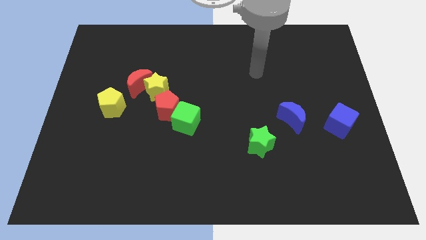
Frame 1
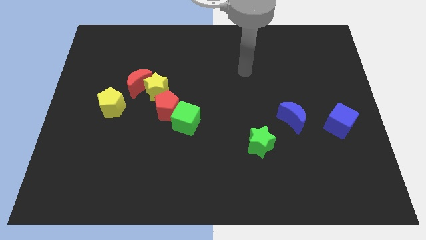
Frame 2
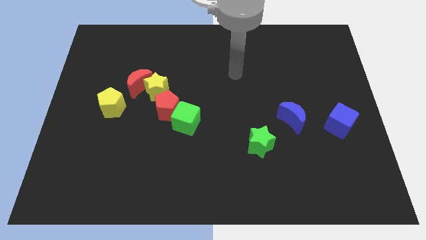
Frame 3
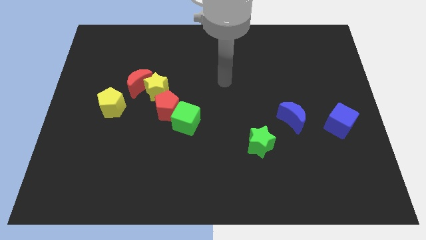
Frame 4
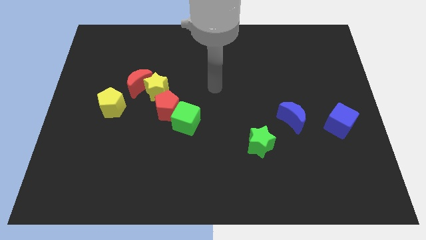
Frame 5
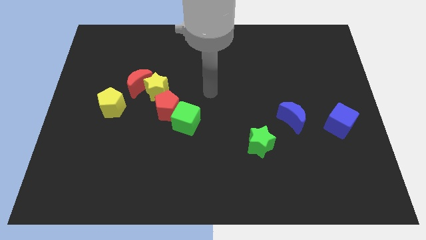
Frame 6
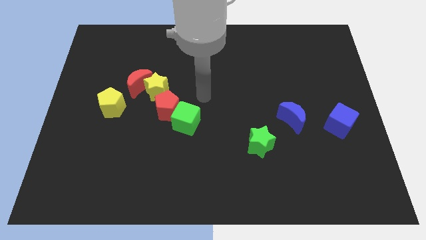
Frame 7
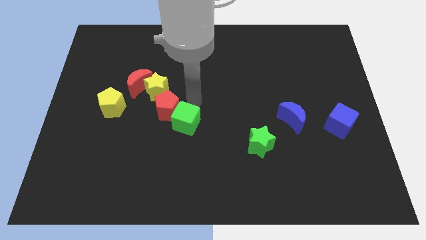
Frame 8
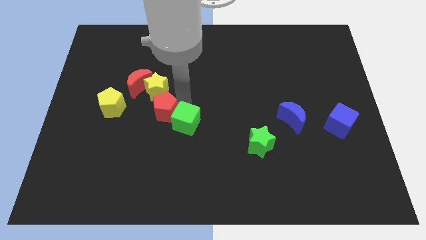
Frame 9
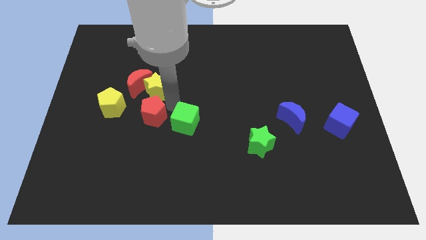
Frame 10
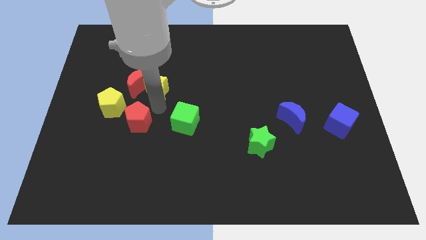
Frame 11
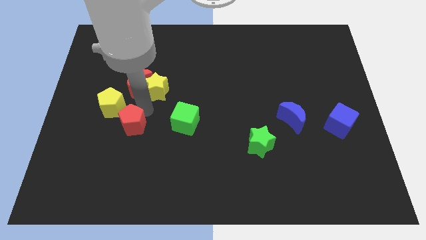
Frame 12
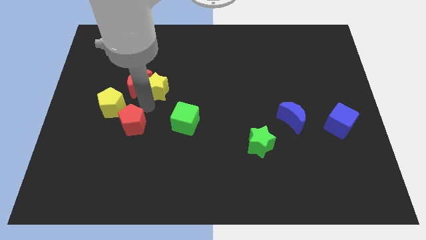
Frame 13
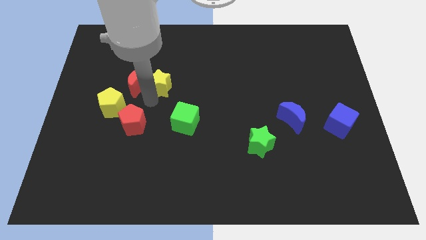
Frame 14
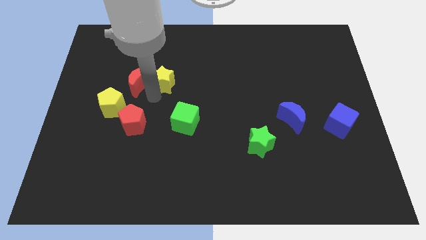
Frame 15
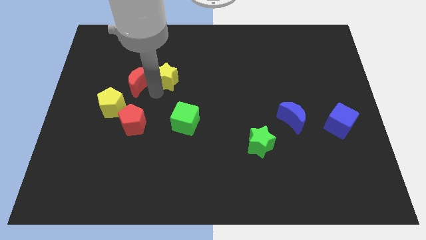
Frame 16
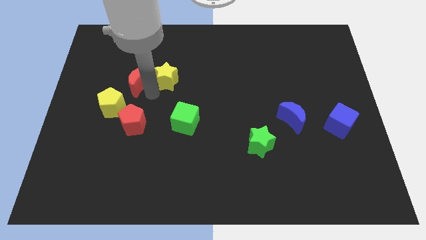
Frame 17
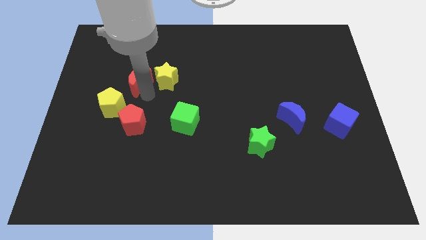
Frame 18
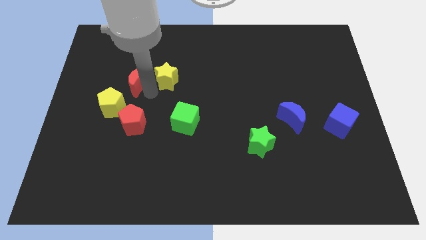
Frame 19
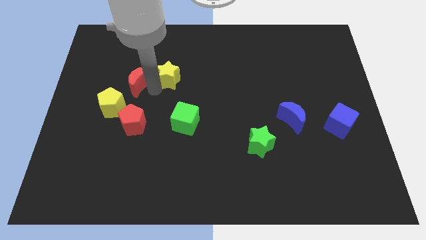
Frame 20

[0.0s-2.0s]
separate the yellow star from the red moon and red pentagon

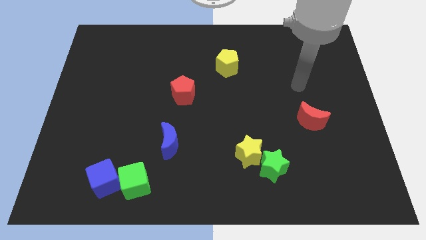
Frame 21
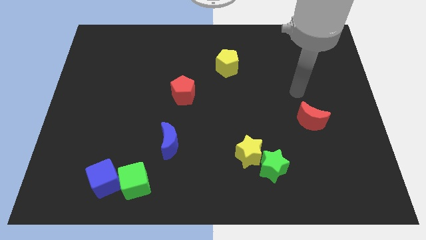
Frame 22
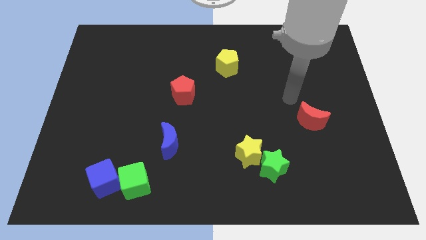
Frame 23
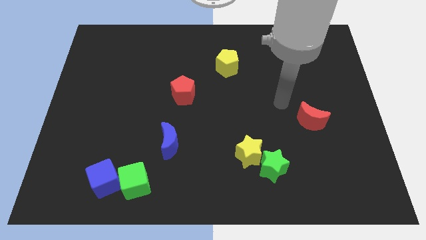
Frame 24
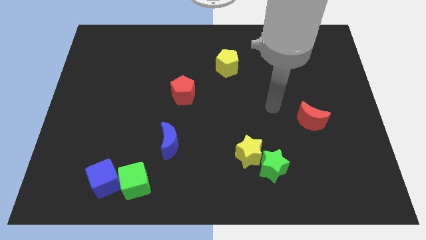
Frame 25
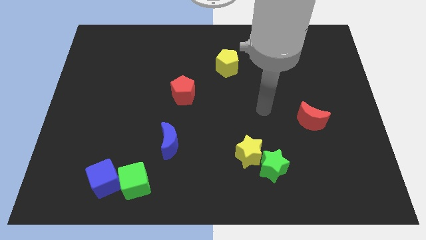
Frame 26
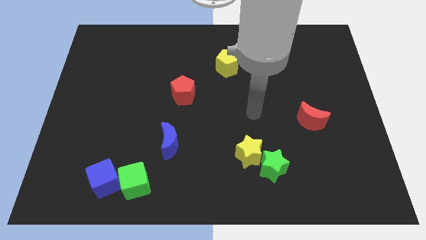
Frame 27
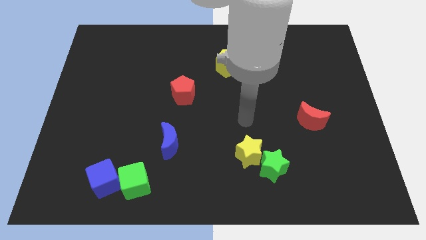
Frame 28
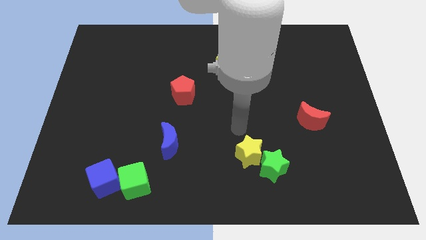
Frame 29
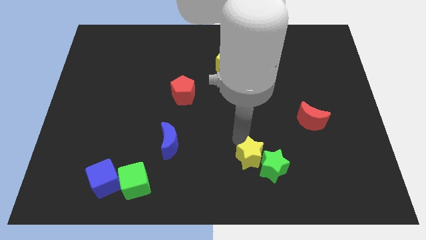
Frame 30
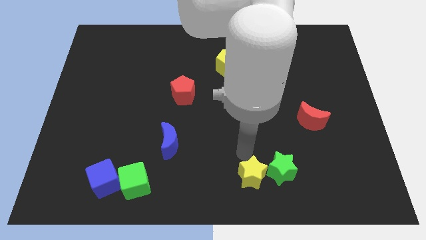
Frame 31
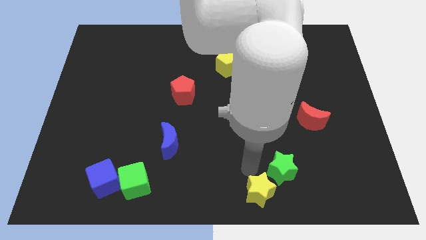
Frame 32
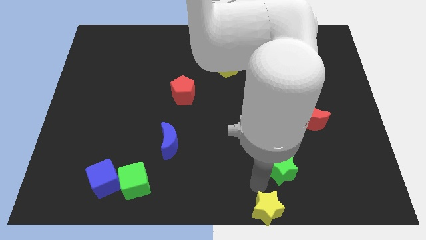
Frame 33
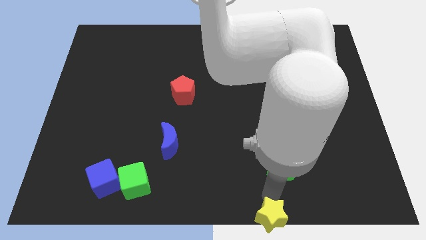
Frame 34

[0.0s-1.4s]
move the green star away from the yellow star

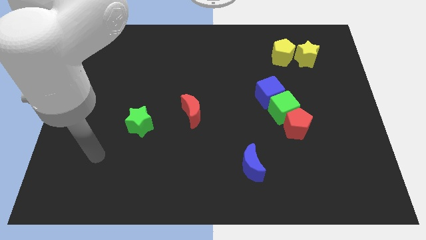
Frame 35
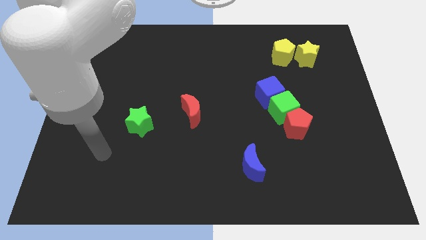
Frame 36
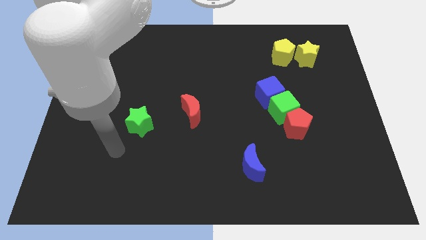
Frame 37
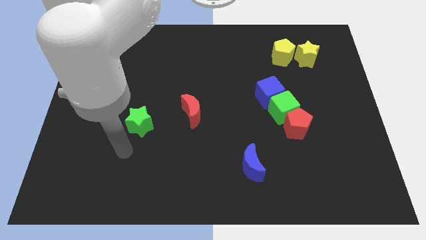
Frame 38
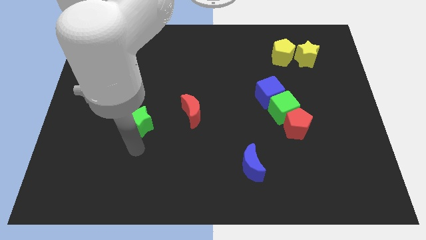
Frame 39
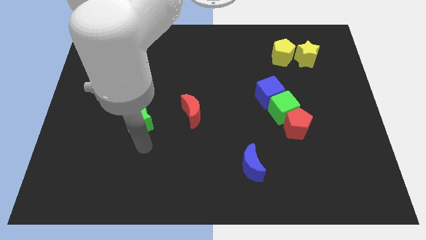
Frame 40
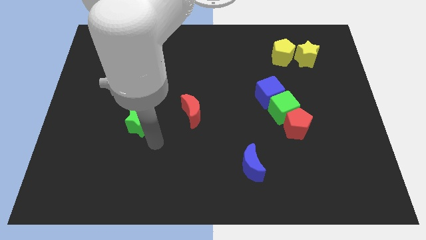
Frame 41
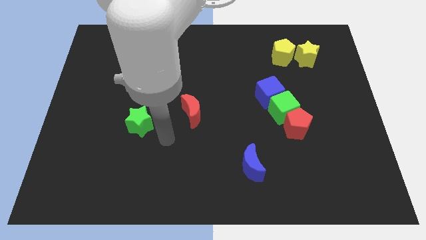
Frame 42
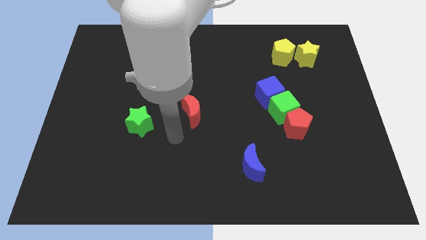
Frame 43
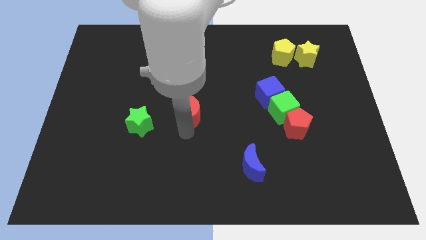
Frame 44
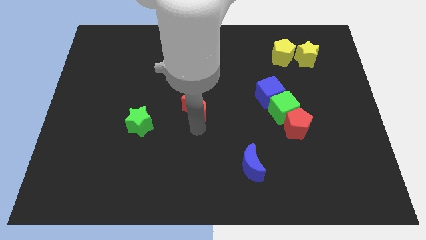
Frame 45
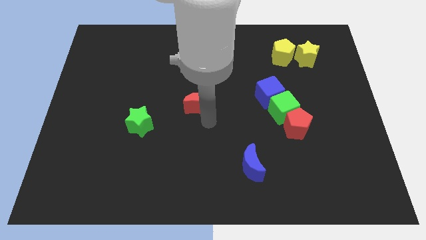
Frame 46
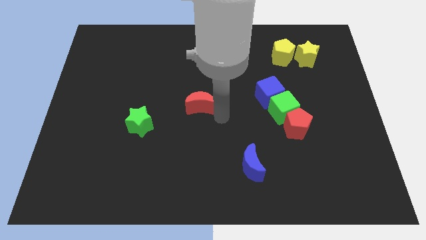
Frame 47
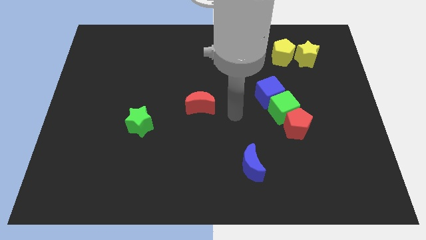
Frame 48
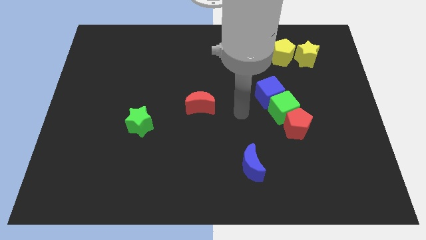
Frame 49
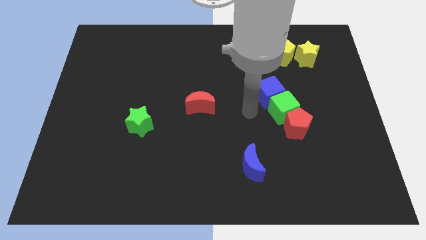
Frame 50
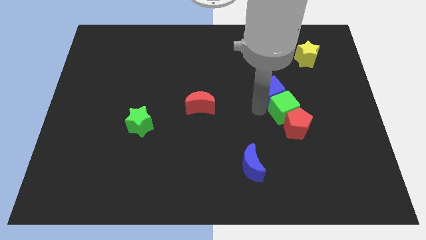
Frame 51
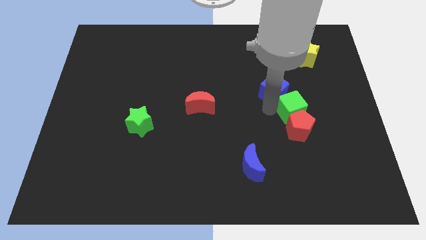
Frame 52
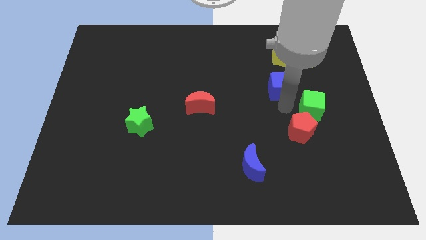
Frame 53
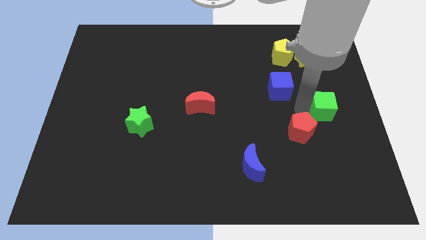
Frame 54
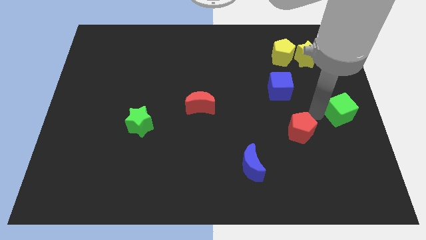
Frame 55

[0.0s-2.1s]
separate the red pentagon from the green cube

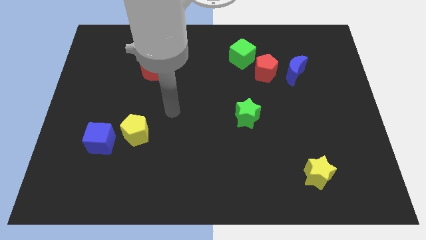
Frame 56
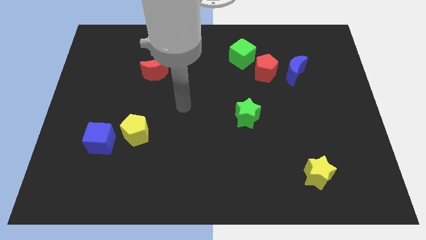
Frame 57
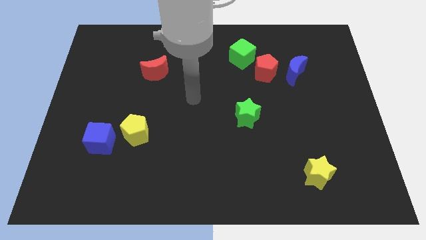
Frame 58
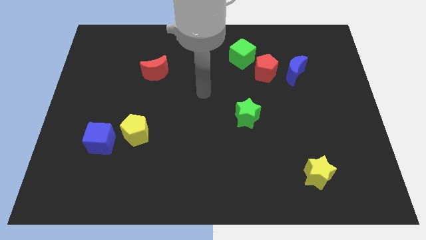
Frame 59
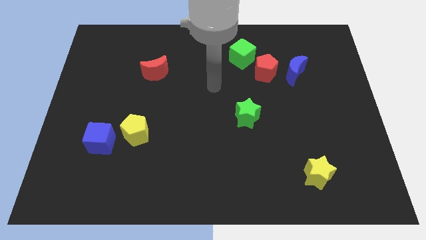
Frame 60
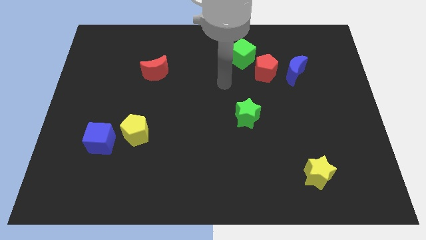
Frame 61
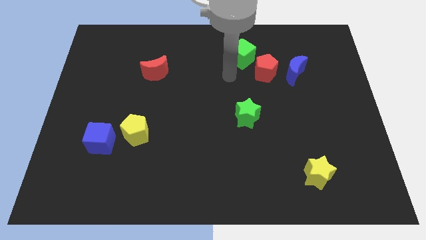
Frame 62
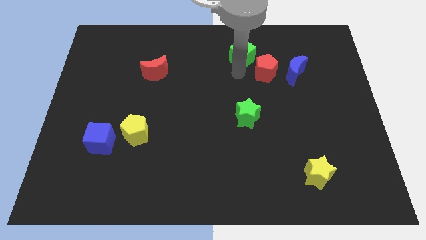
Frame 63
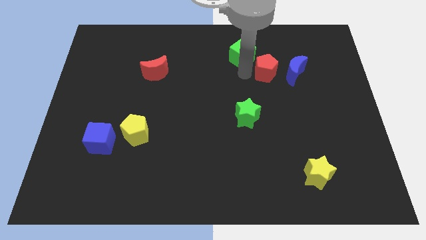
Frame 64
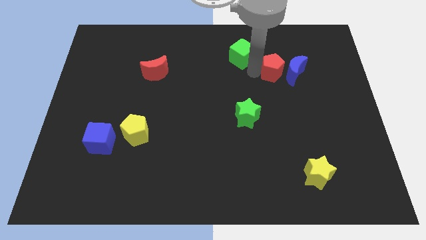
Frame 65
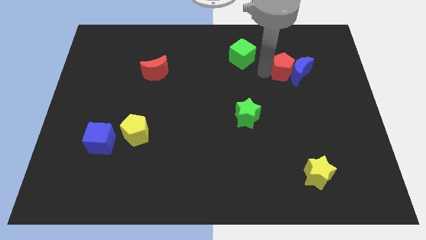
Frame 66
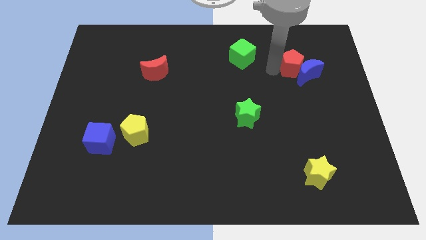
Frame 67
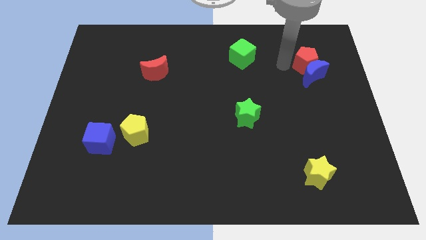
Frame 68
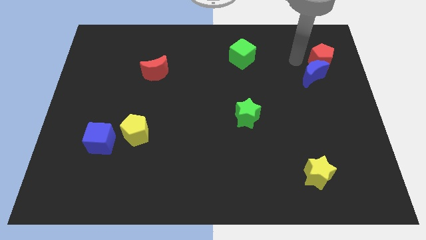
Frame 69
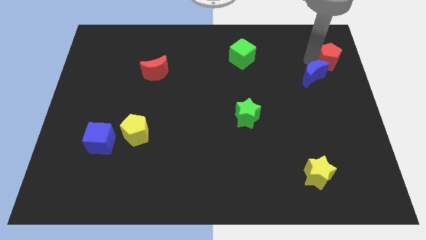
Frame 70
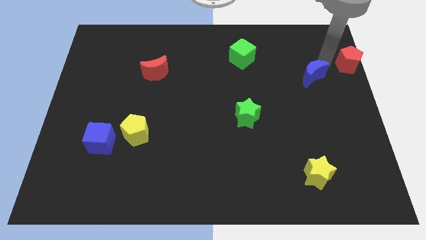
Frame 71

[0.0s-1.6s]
separate the blue moon from the red pentagon

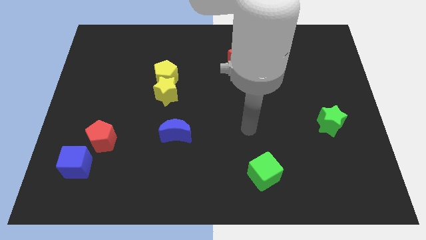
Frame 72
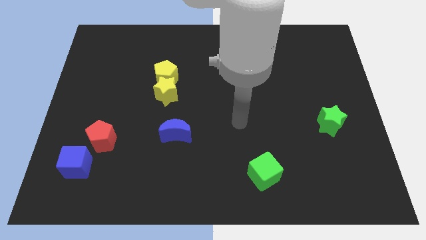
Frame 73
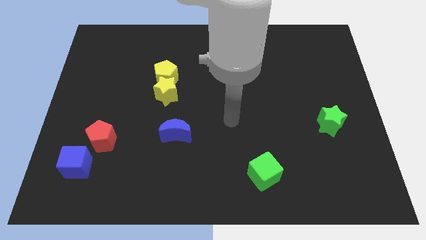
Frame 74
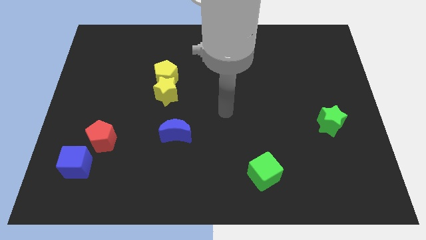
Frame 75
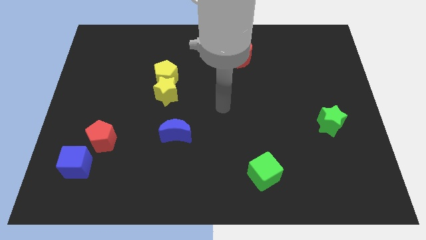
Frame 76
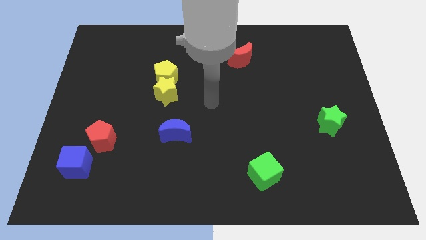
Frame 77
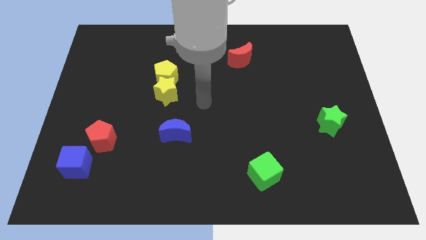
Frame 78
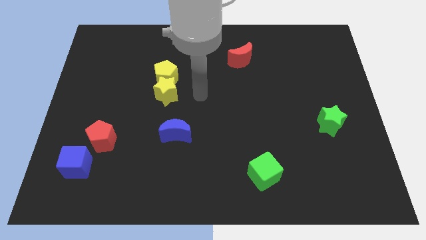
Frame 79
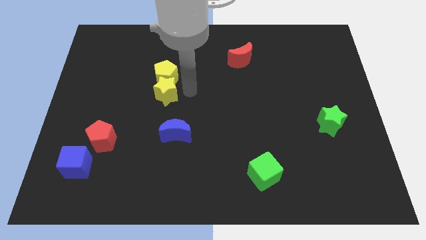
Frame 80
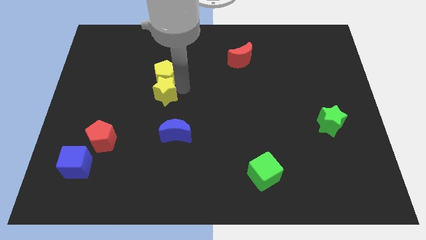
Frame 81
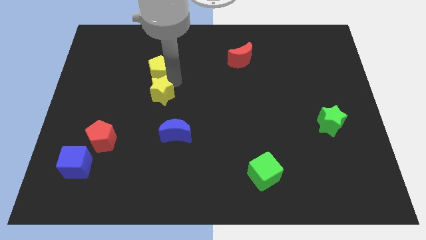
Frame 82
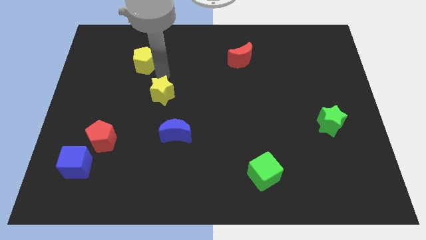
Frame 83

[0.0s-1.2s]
move the yellow star away from the yellow pentagon

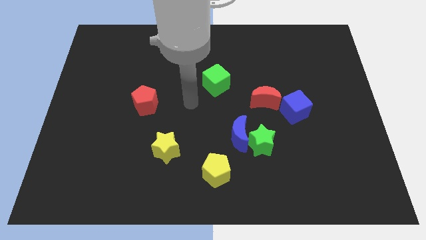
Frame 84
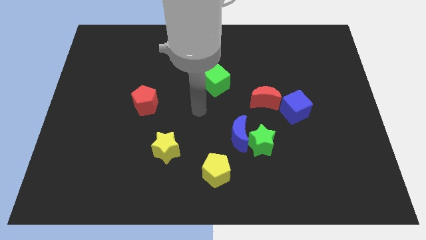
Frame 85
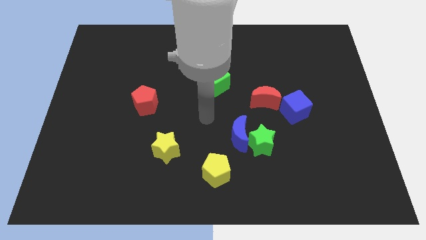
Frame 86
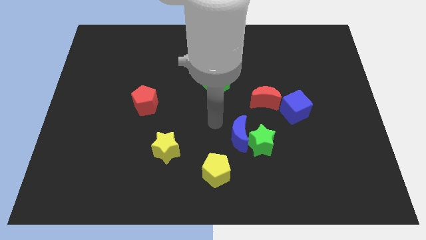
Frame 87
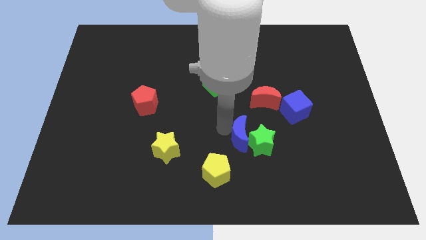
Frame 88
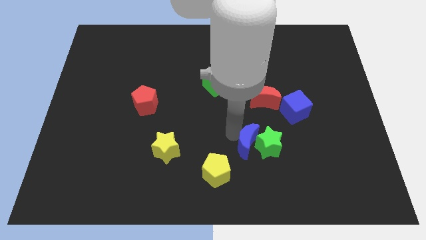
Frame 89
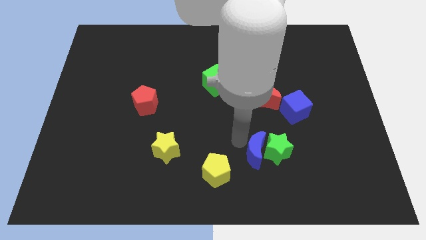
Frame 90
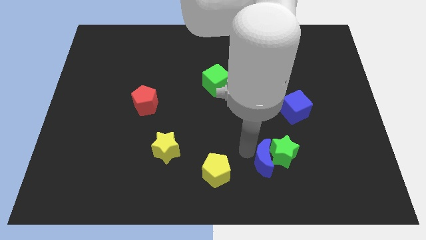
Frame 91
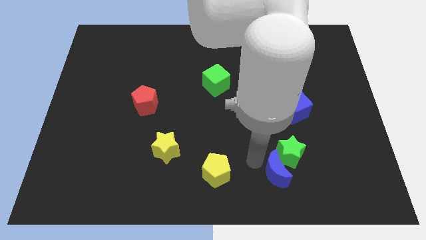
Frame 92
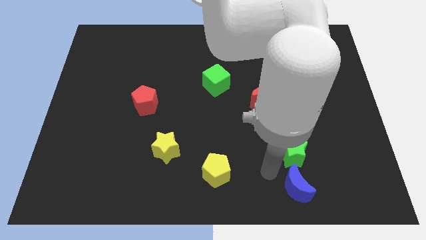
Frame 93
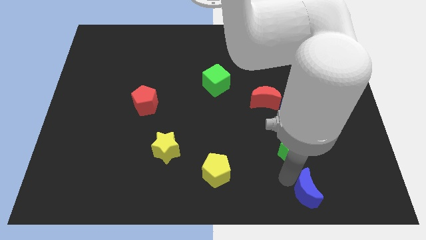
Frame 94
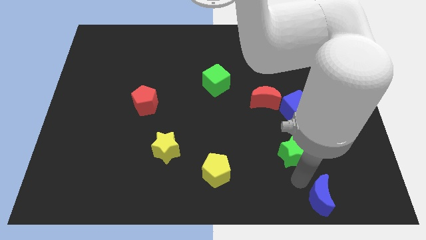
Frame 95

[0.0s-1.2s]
pull the green star apart from the blue moon
